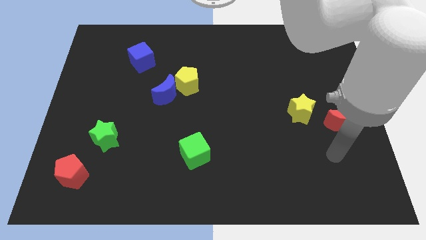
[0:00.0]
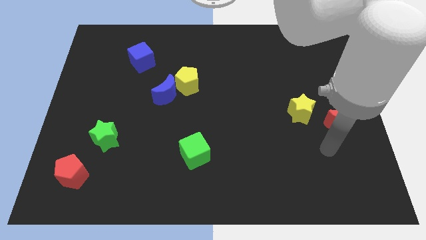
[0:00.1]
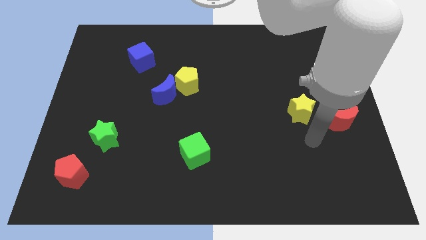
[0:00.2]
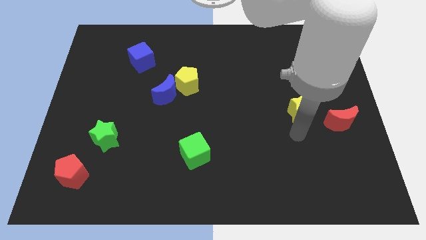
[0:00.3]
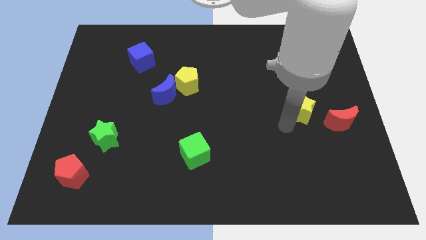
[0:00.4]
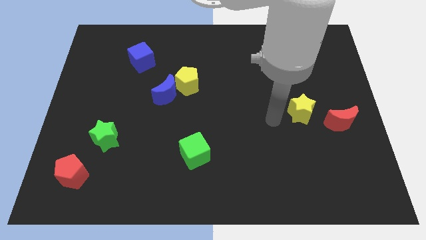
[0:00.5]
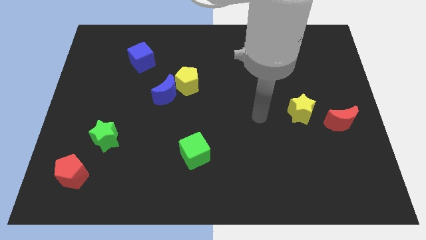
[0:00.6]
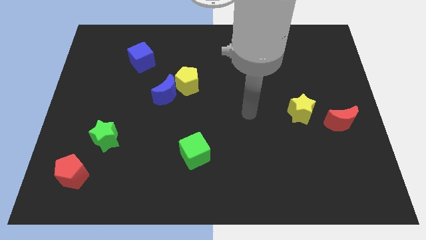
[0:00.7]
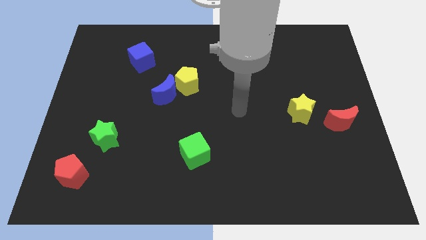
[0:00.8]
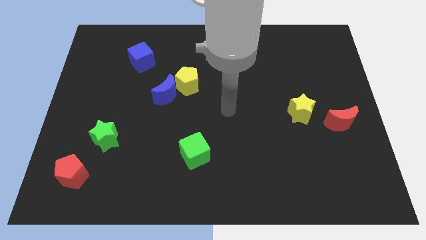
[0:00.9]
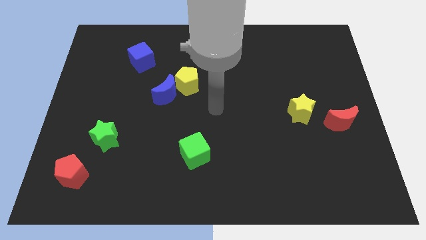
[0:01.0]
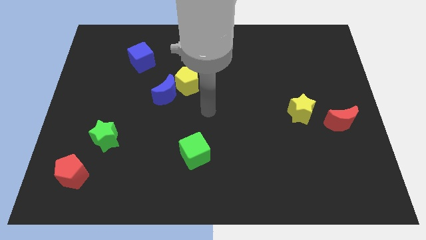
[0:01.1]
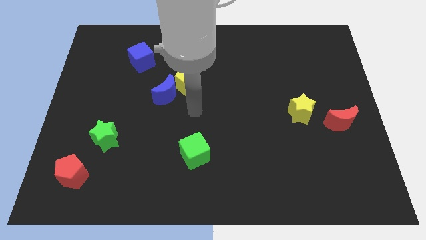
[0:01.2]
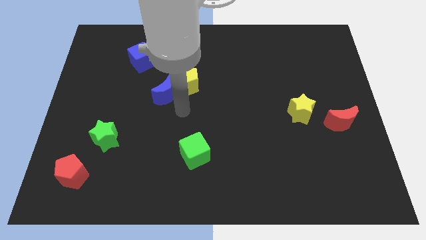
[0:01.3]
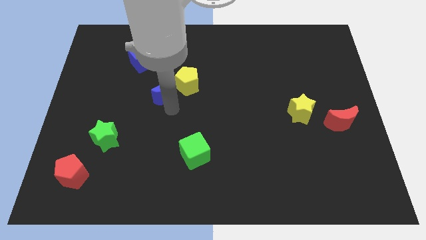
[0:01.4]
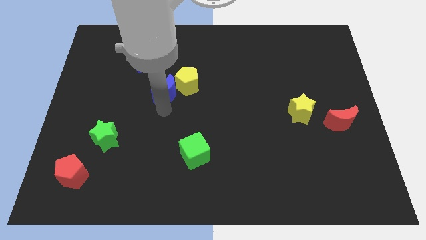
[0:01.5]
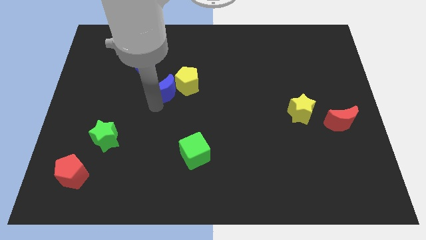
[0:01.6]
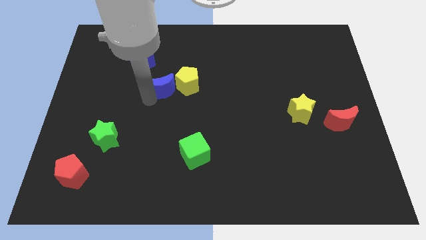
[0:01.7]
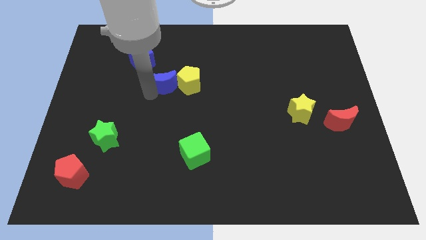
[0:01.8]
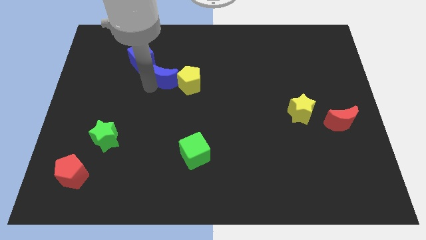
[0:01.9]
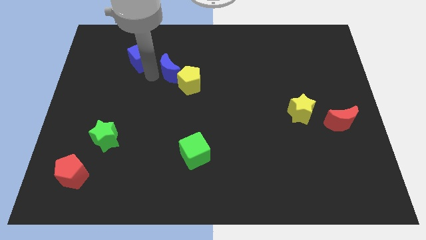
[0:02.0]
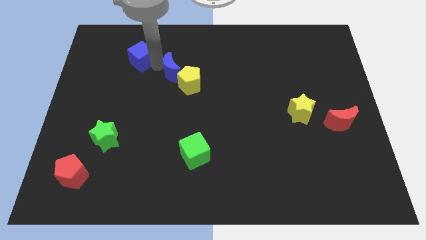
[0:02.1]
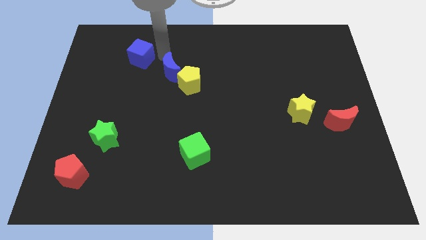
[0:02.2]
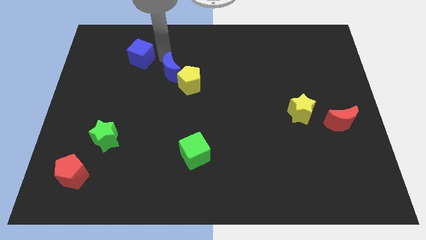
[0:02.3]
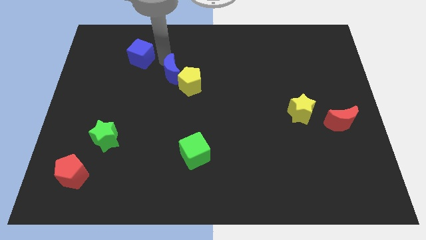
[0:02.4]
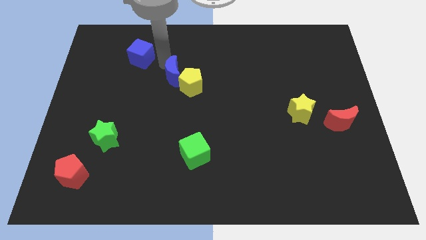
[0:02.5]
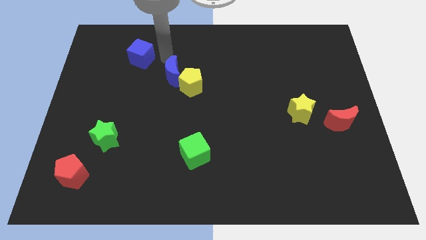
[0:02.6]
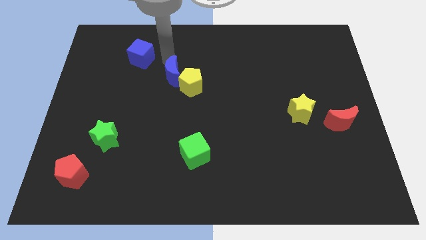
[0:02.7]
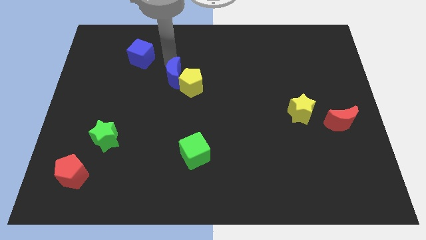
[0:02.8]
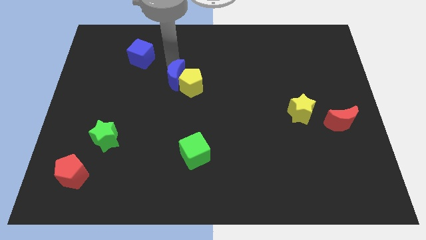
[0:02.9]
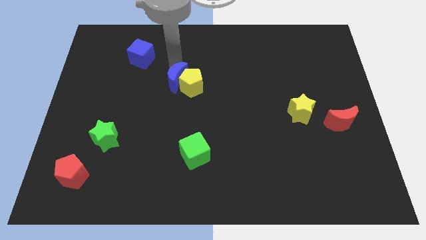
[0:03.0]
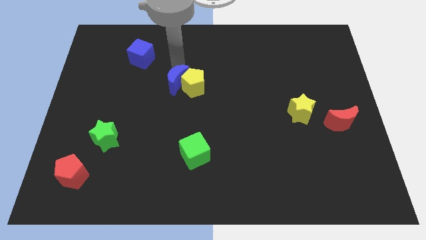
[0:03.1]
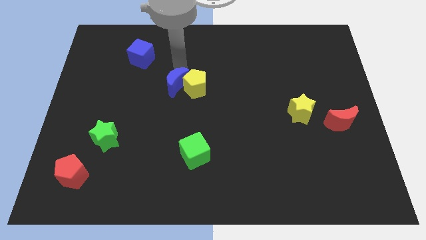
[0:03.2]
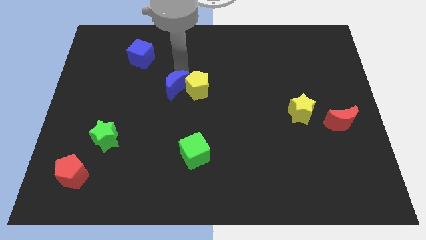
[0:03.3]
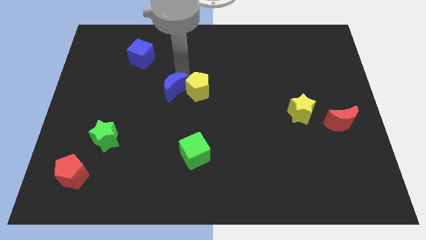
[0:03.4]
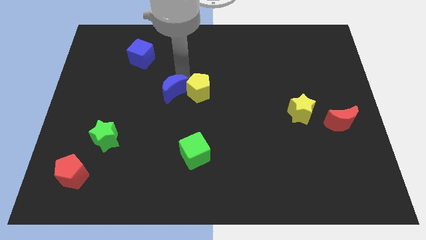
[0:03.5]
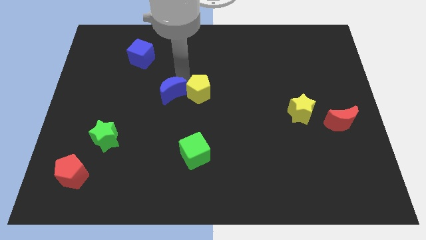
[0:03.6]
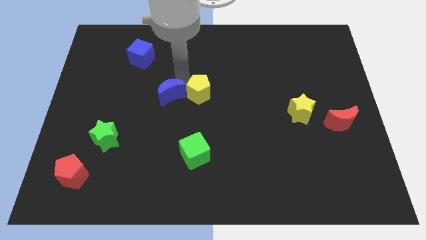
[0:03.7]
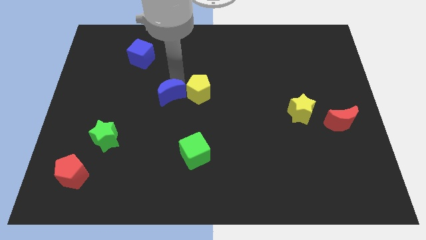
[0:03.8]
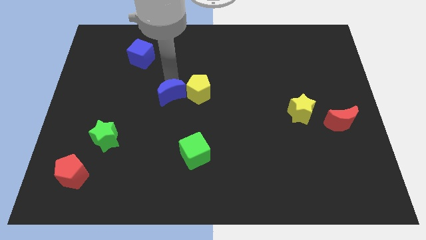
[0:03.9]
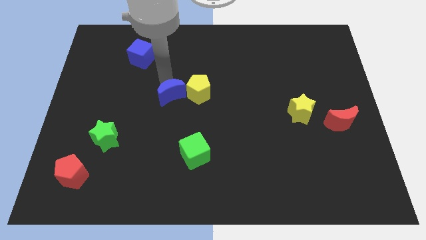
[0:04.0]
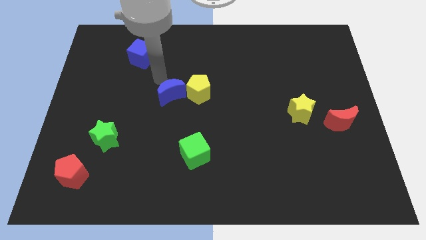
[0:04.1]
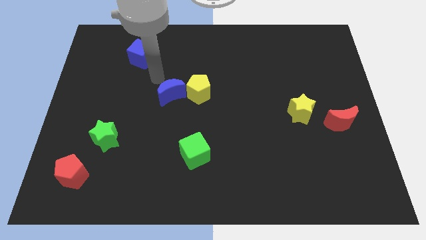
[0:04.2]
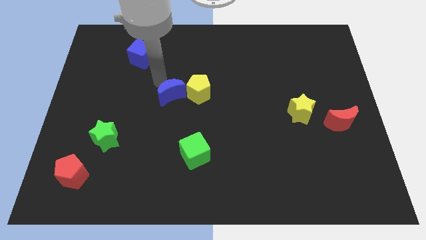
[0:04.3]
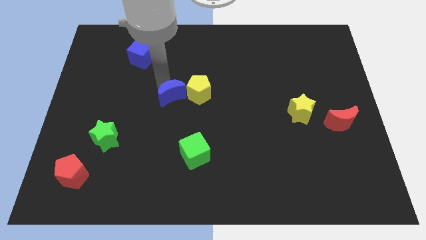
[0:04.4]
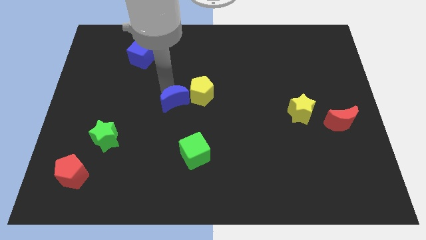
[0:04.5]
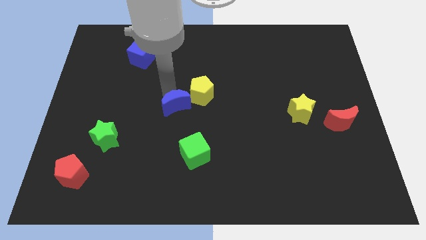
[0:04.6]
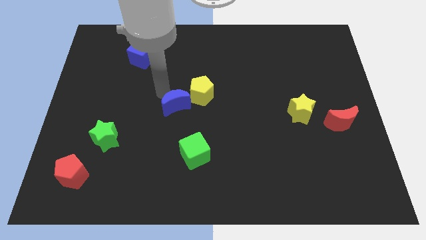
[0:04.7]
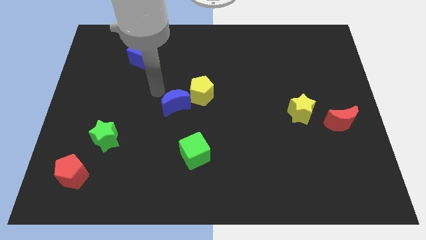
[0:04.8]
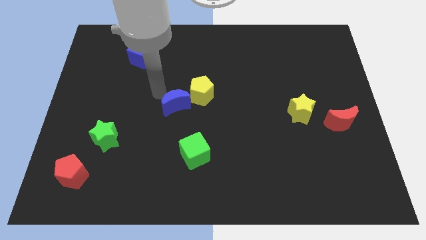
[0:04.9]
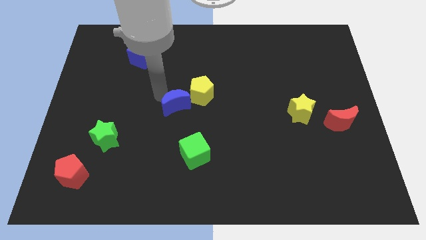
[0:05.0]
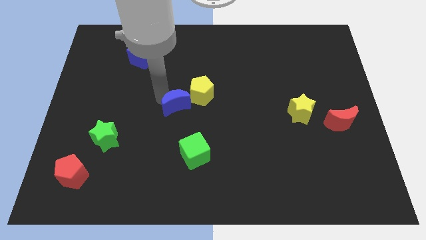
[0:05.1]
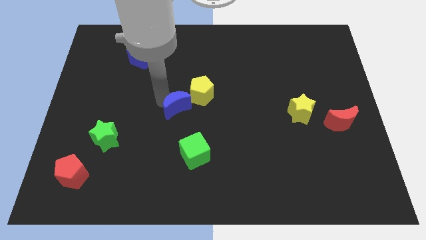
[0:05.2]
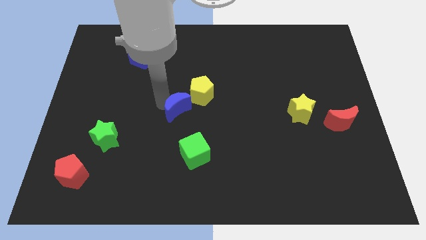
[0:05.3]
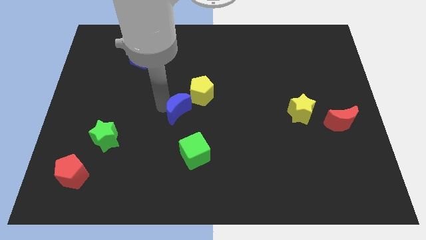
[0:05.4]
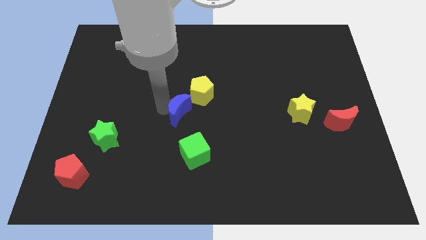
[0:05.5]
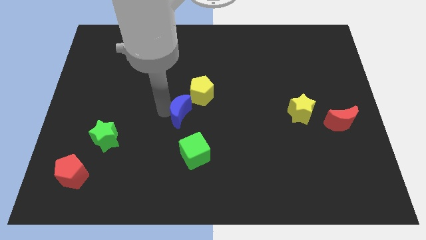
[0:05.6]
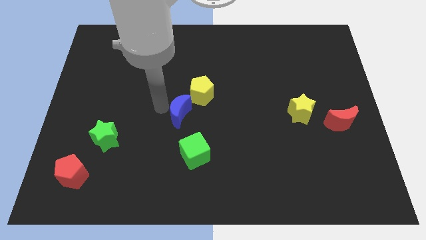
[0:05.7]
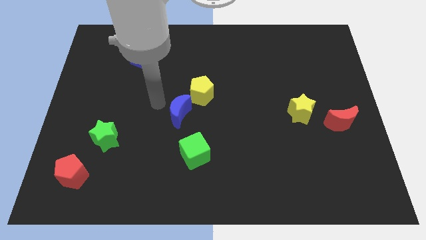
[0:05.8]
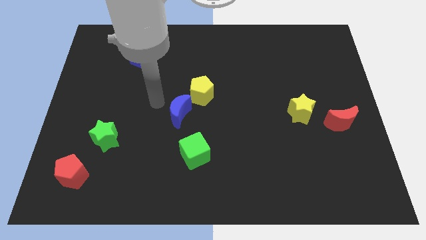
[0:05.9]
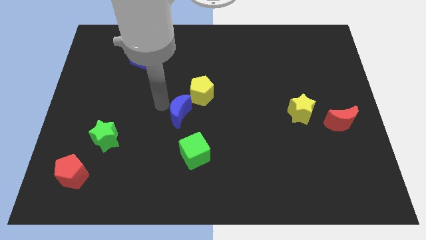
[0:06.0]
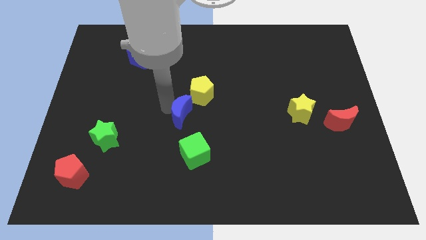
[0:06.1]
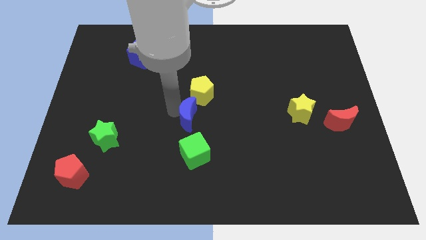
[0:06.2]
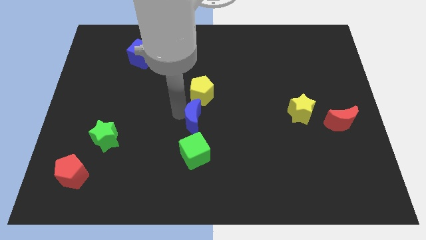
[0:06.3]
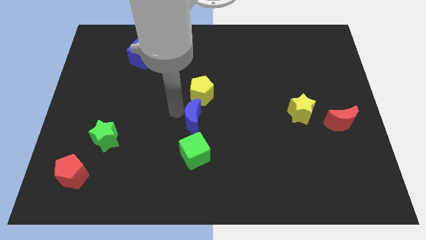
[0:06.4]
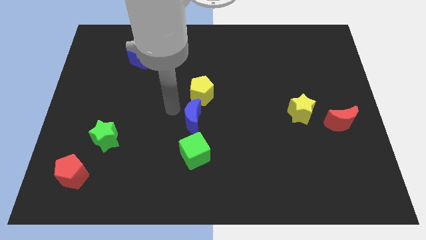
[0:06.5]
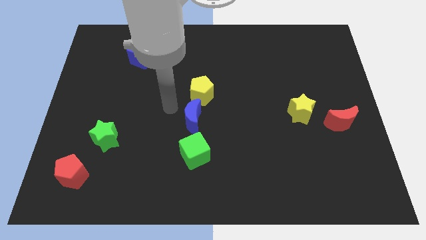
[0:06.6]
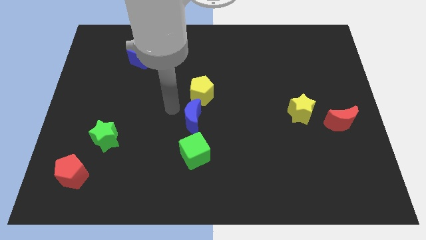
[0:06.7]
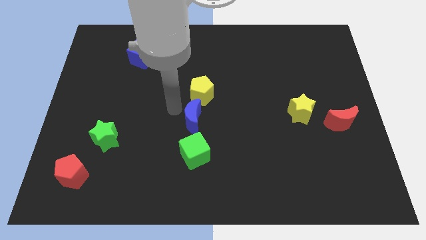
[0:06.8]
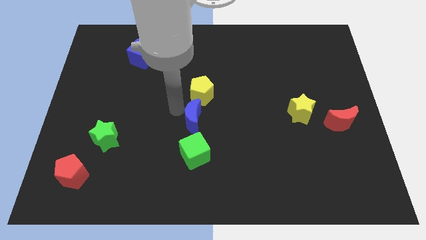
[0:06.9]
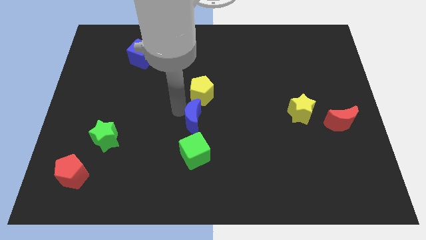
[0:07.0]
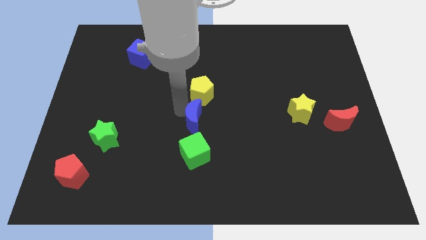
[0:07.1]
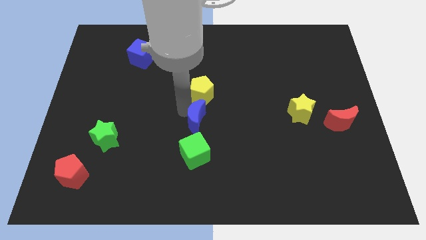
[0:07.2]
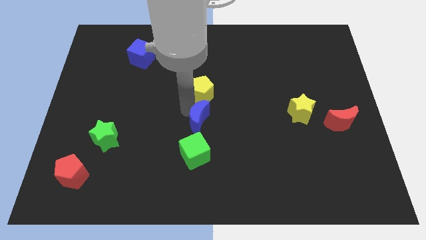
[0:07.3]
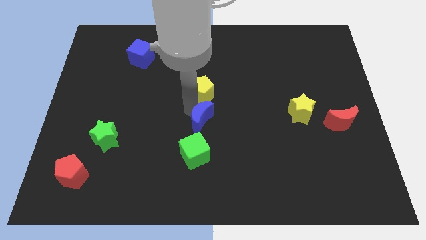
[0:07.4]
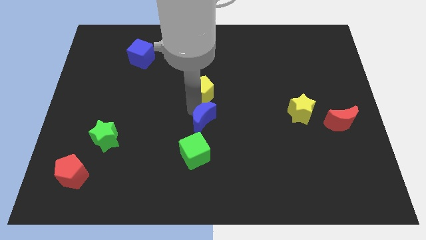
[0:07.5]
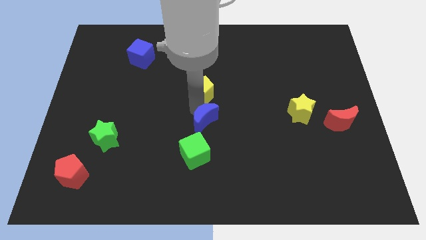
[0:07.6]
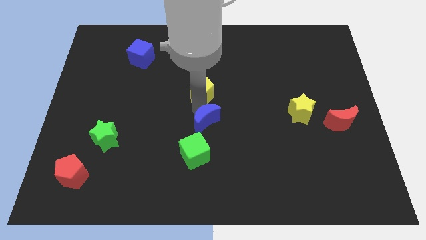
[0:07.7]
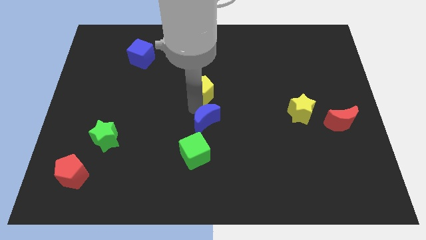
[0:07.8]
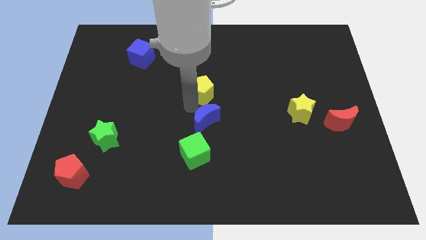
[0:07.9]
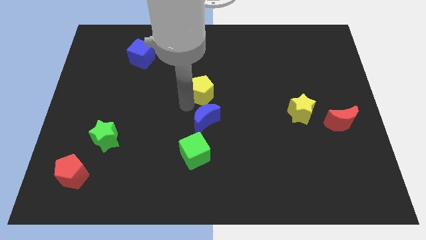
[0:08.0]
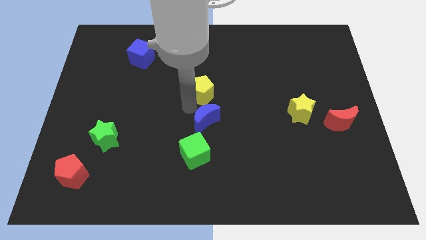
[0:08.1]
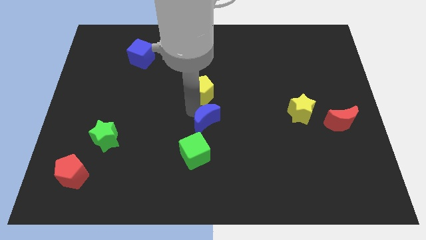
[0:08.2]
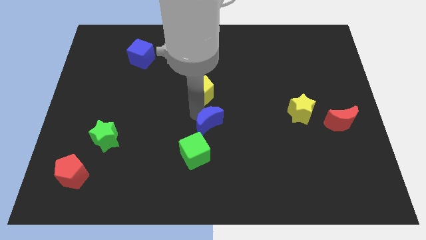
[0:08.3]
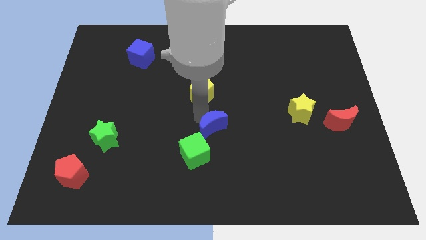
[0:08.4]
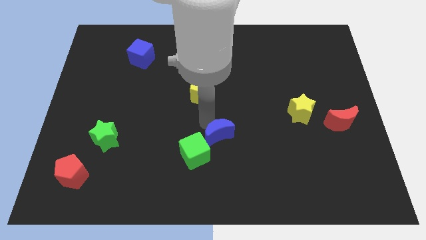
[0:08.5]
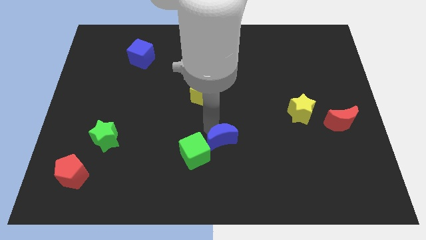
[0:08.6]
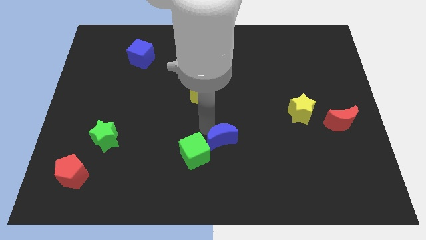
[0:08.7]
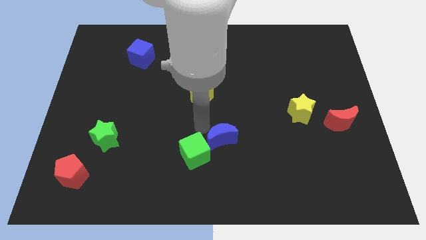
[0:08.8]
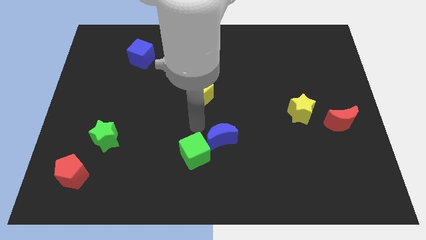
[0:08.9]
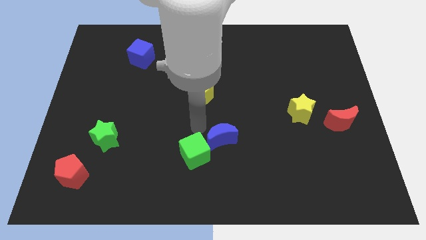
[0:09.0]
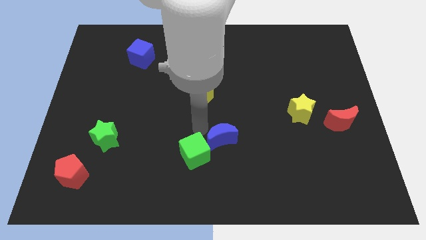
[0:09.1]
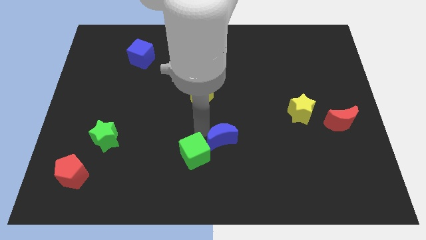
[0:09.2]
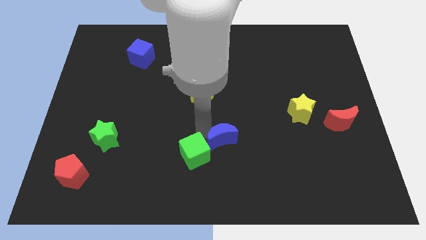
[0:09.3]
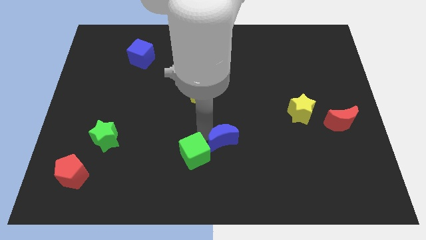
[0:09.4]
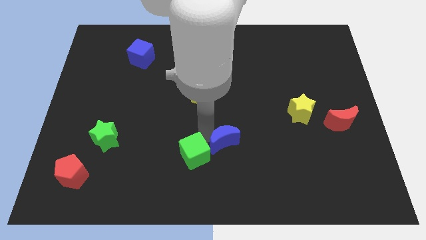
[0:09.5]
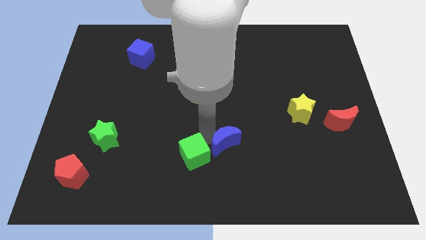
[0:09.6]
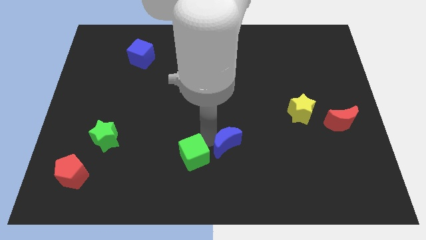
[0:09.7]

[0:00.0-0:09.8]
move the blue moon diagonally downwards and to the right
